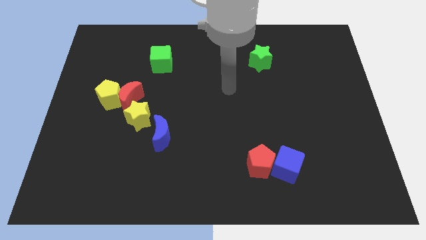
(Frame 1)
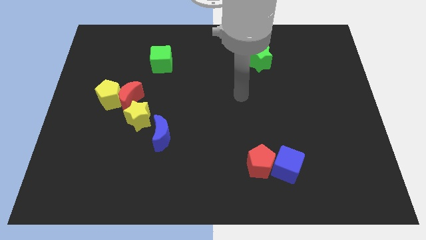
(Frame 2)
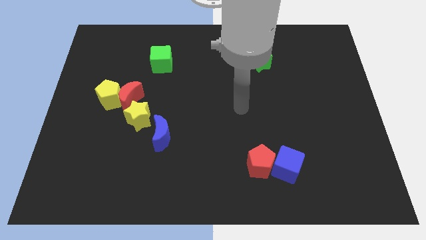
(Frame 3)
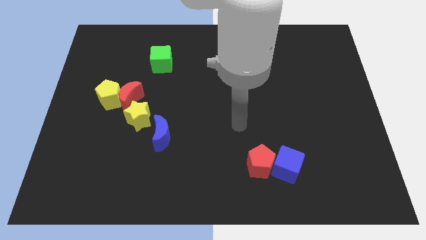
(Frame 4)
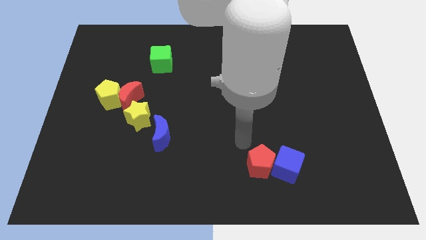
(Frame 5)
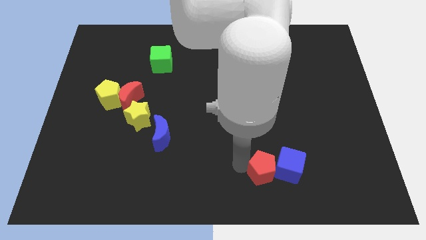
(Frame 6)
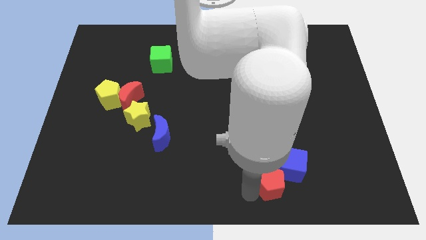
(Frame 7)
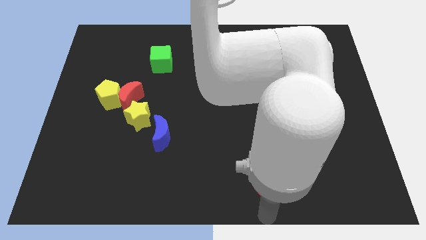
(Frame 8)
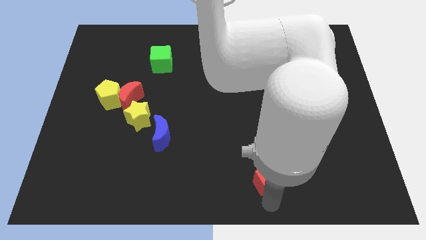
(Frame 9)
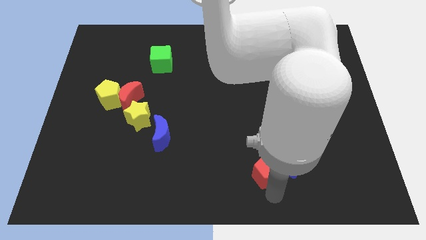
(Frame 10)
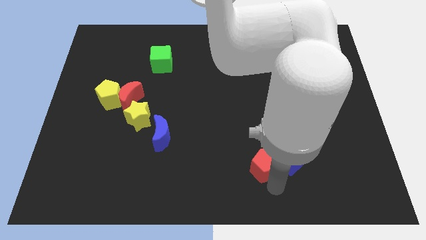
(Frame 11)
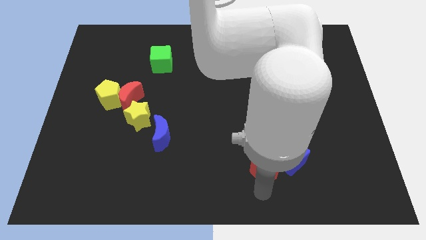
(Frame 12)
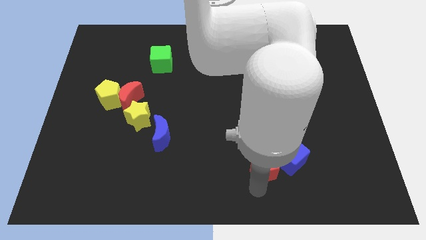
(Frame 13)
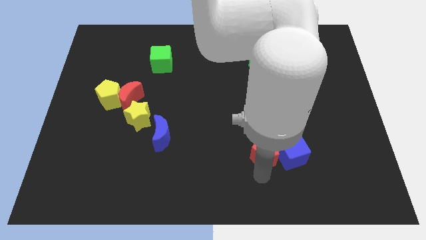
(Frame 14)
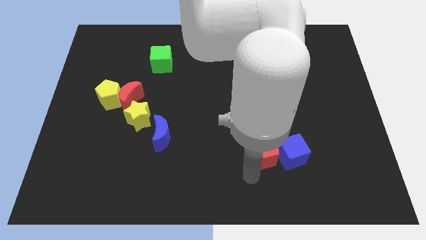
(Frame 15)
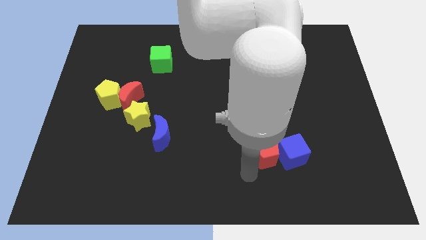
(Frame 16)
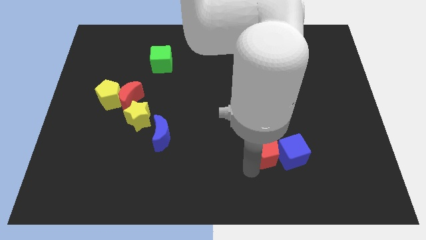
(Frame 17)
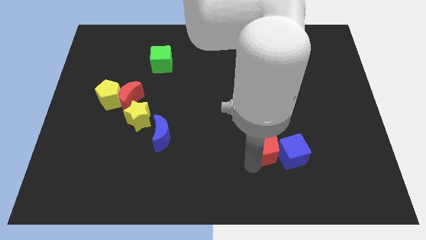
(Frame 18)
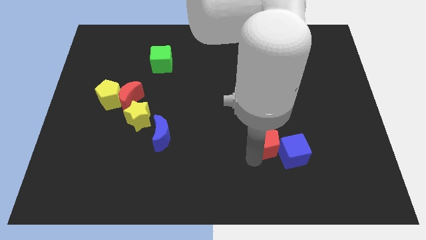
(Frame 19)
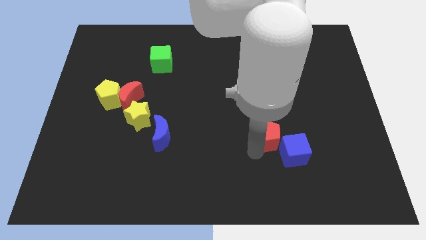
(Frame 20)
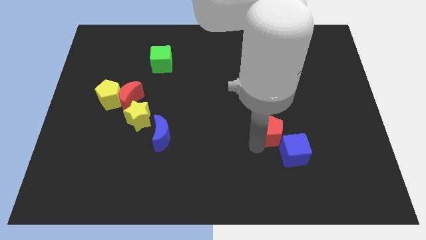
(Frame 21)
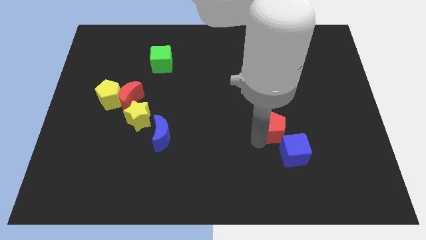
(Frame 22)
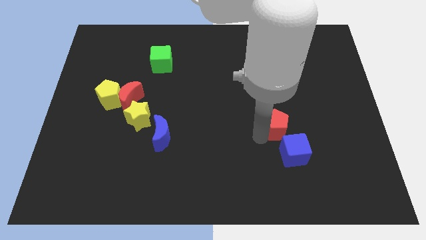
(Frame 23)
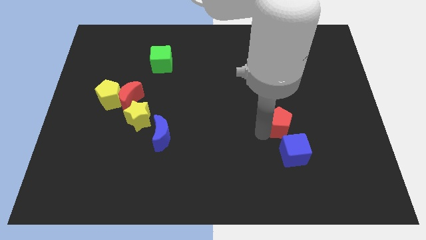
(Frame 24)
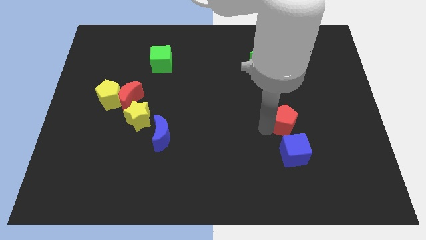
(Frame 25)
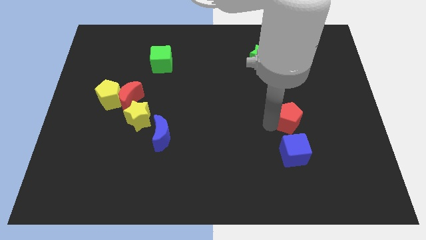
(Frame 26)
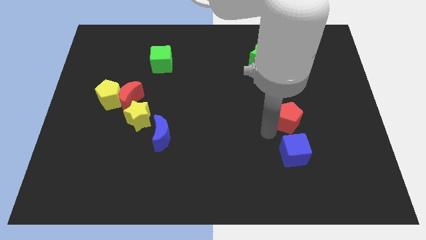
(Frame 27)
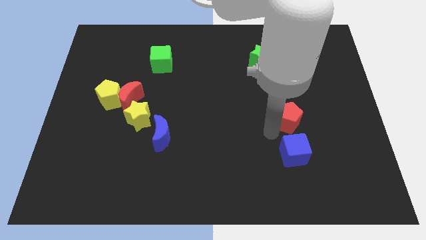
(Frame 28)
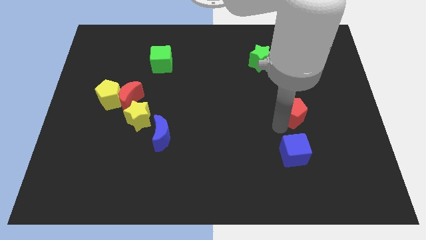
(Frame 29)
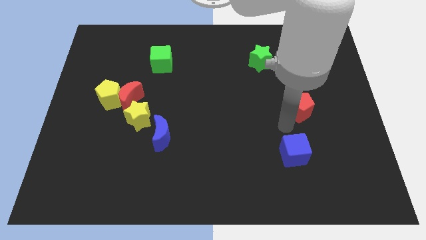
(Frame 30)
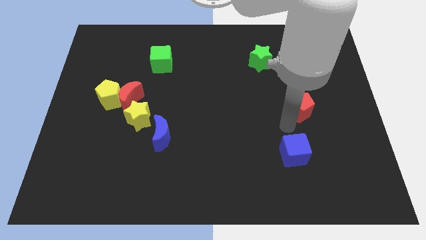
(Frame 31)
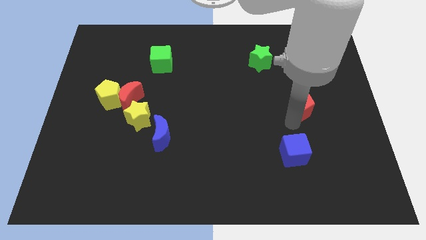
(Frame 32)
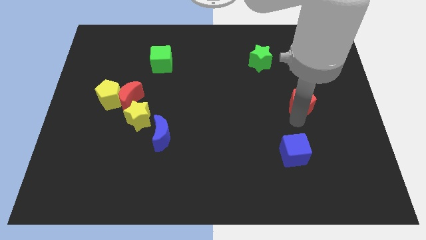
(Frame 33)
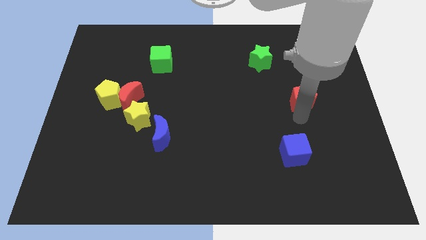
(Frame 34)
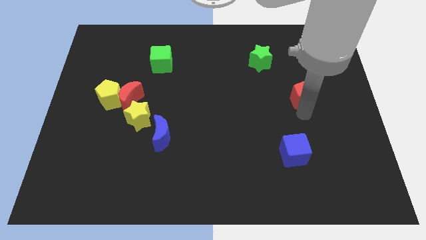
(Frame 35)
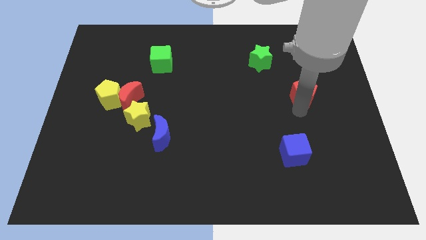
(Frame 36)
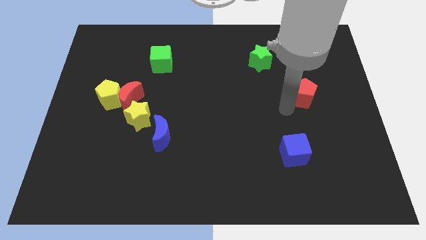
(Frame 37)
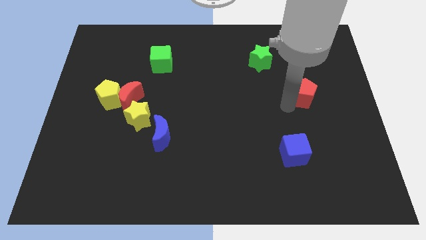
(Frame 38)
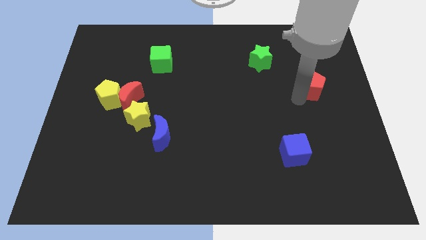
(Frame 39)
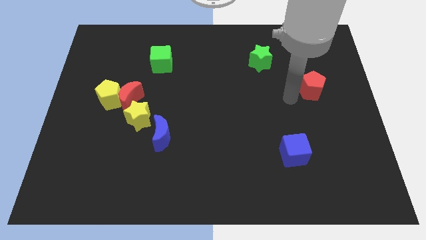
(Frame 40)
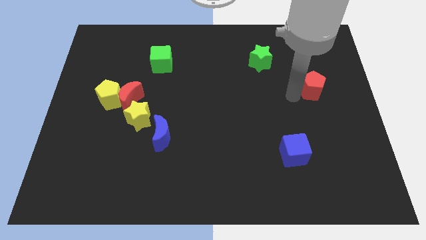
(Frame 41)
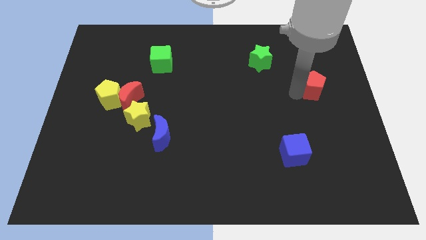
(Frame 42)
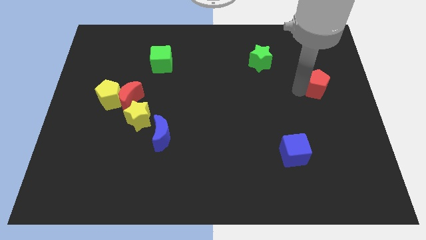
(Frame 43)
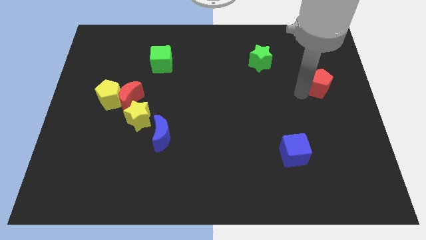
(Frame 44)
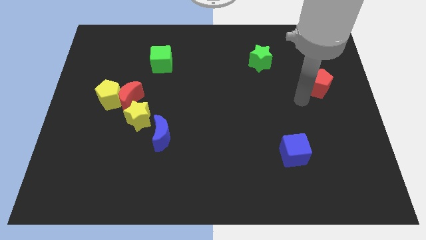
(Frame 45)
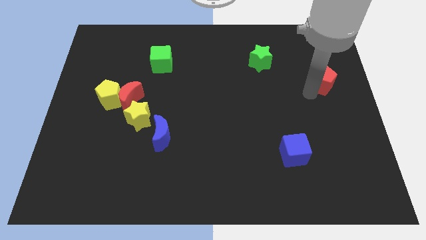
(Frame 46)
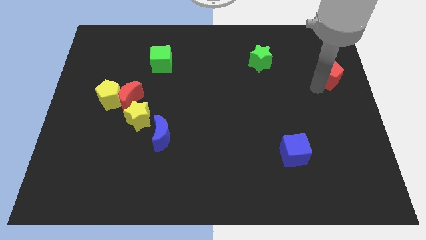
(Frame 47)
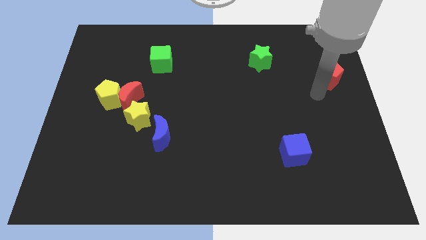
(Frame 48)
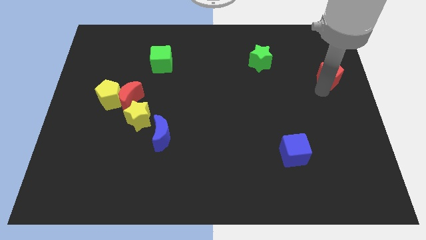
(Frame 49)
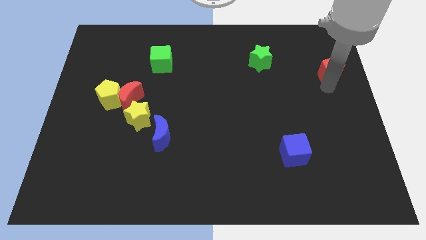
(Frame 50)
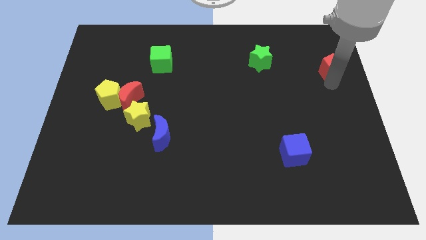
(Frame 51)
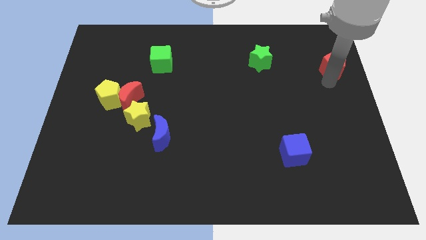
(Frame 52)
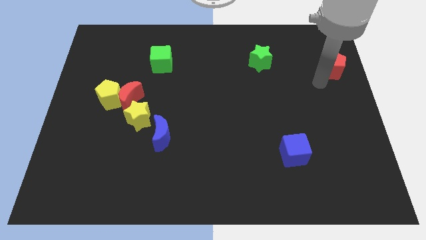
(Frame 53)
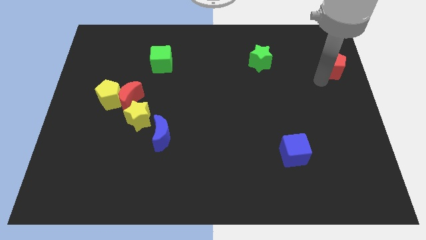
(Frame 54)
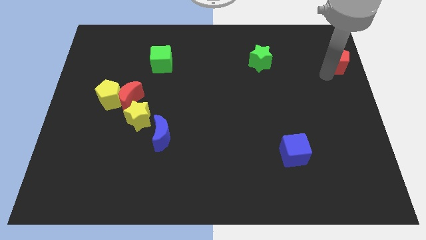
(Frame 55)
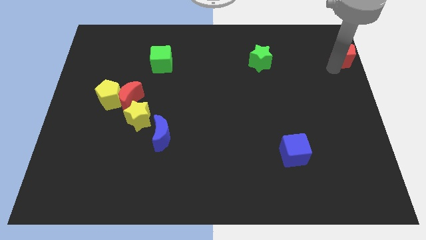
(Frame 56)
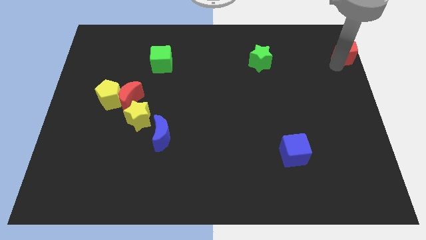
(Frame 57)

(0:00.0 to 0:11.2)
move the red pentagon to the upper right corner

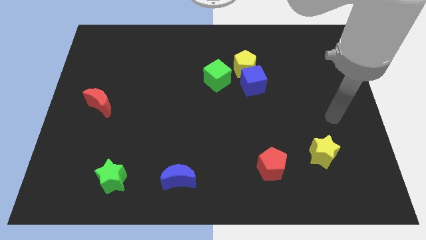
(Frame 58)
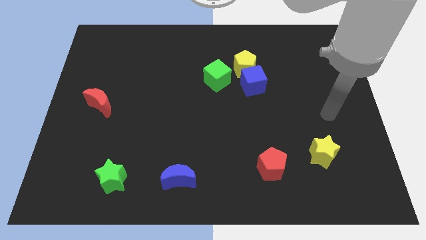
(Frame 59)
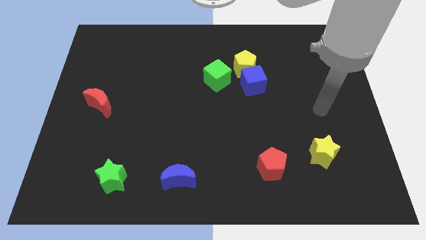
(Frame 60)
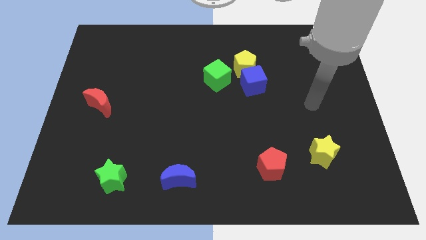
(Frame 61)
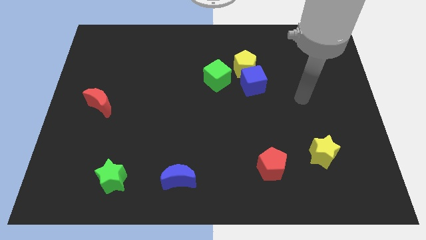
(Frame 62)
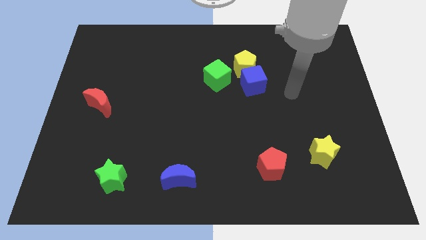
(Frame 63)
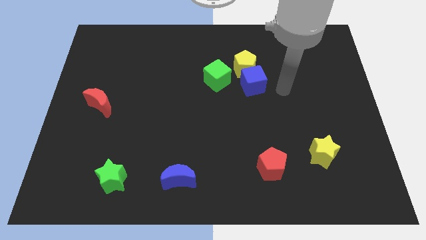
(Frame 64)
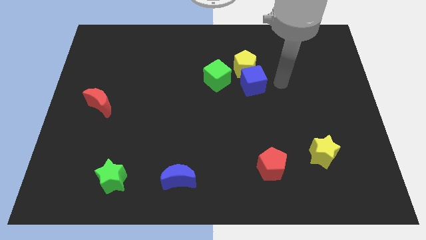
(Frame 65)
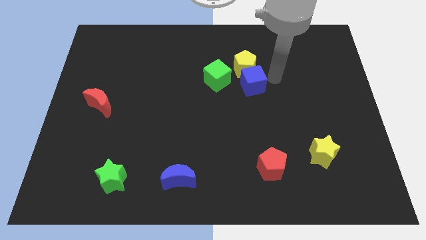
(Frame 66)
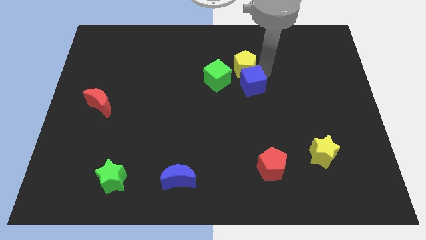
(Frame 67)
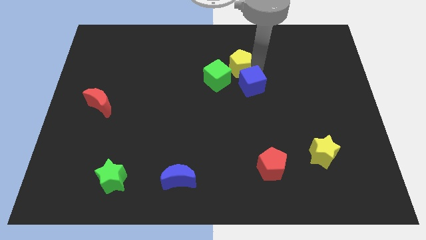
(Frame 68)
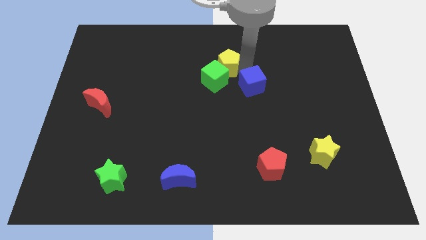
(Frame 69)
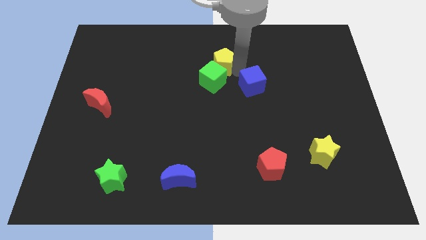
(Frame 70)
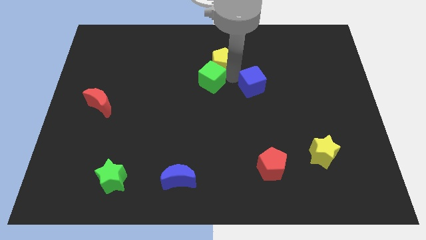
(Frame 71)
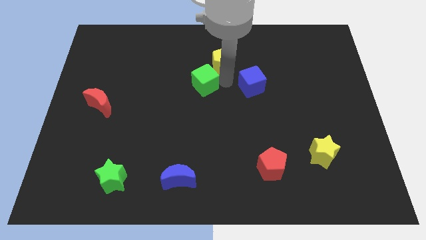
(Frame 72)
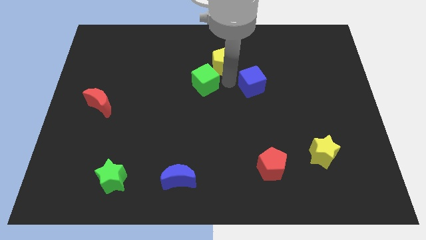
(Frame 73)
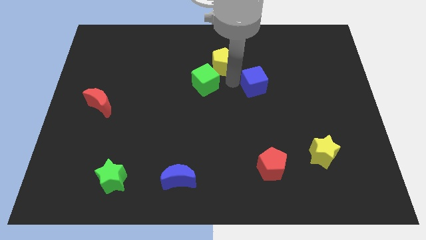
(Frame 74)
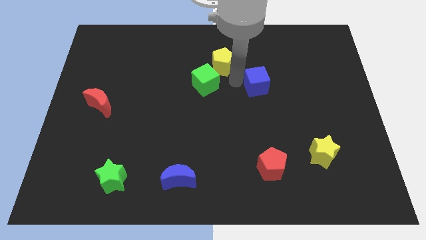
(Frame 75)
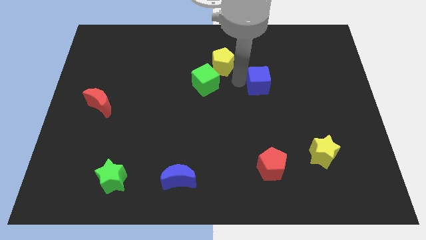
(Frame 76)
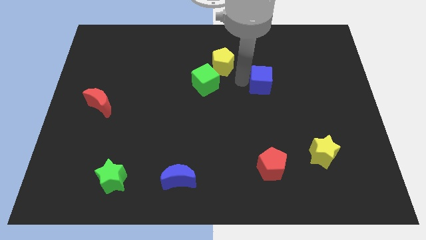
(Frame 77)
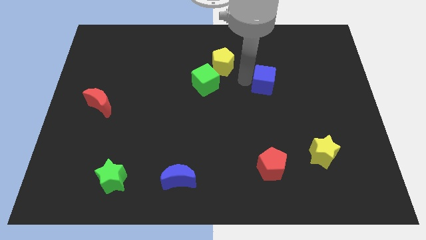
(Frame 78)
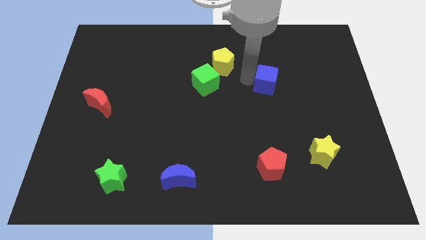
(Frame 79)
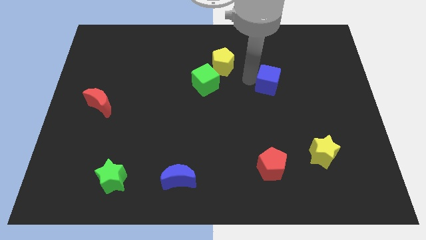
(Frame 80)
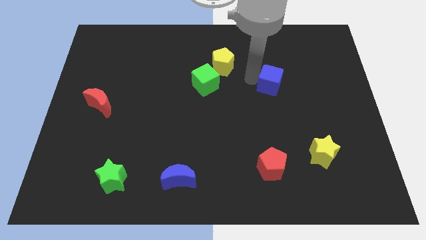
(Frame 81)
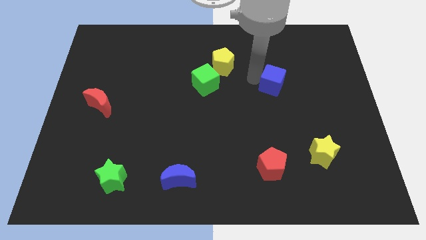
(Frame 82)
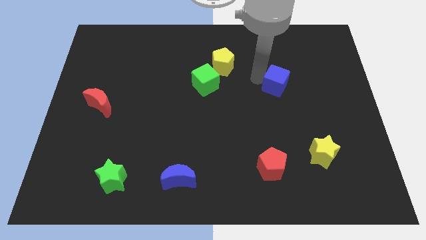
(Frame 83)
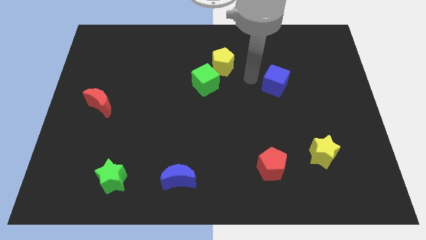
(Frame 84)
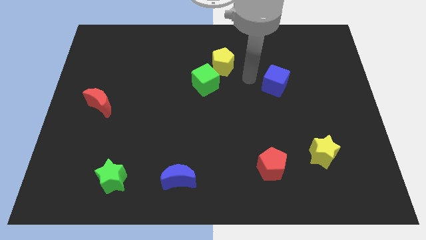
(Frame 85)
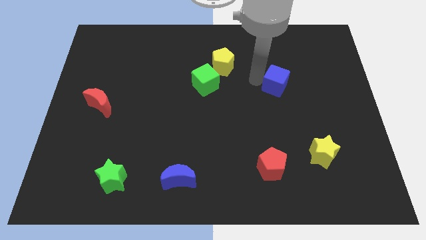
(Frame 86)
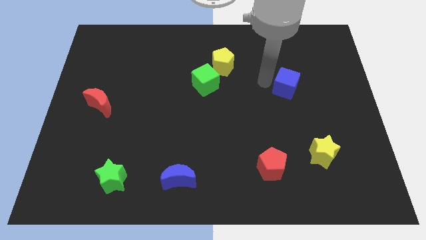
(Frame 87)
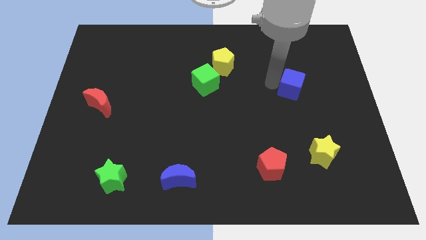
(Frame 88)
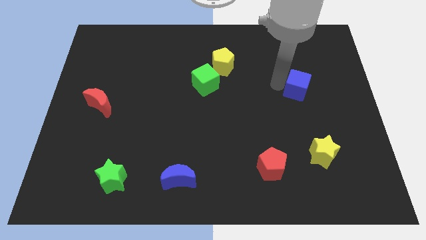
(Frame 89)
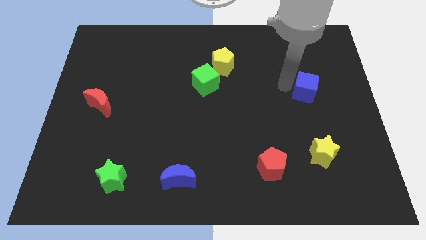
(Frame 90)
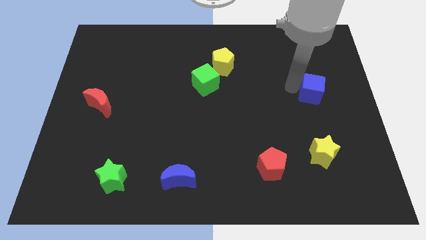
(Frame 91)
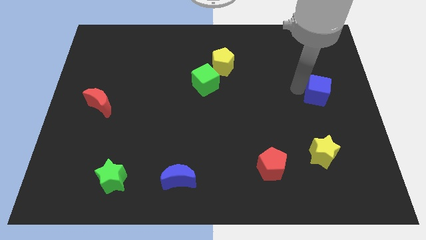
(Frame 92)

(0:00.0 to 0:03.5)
put the blue cube to the right side
